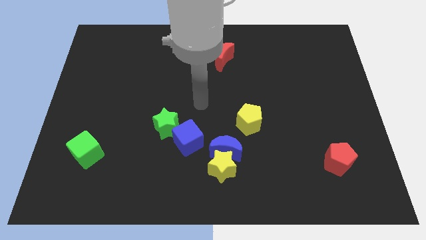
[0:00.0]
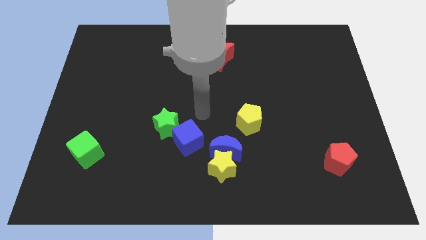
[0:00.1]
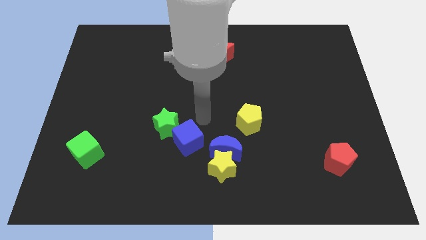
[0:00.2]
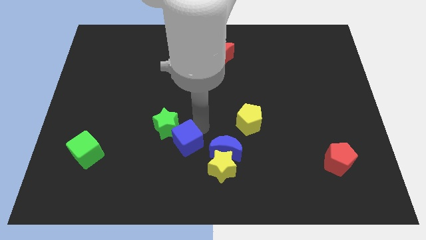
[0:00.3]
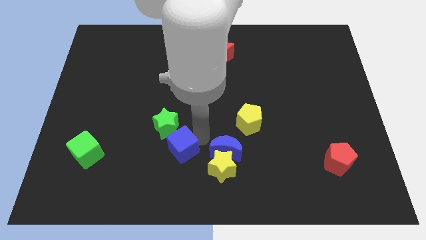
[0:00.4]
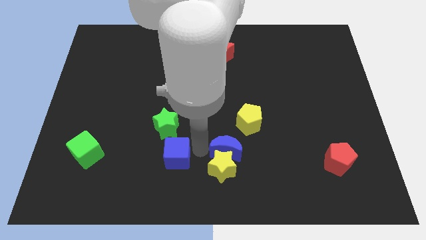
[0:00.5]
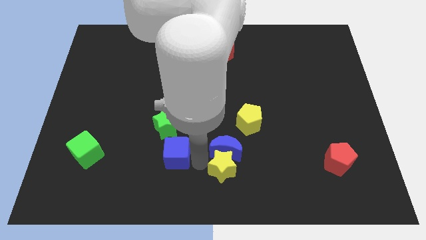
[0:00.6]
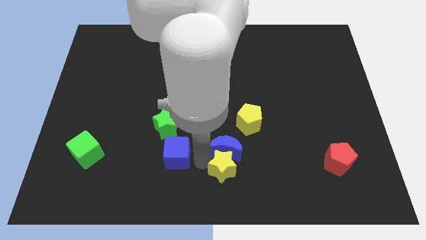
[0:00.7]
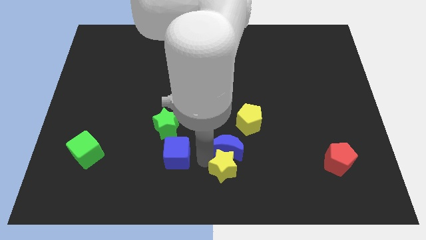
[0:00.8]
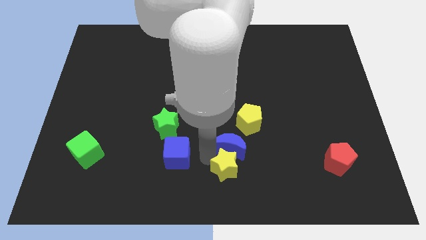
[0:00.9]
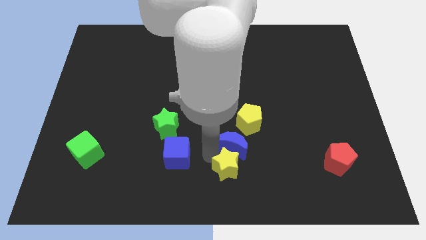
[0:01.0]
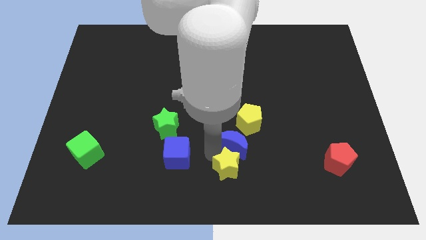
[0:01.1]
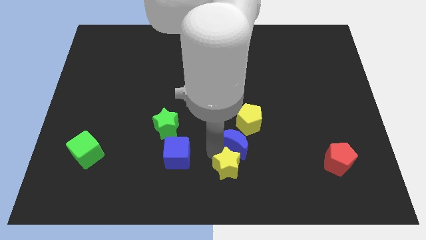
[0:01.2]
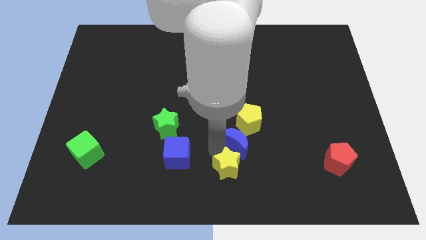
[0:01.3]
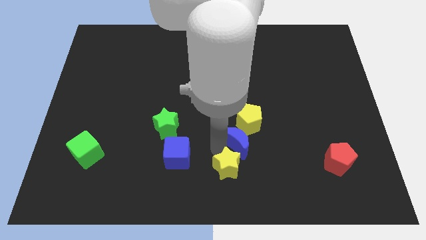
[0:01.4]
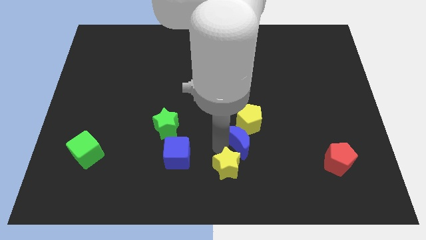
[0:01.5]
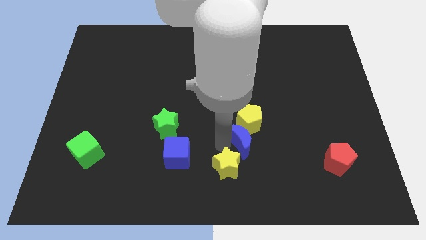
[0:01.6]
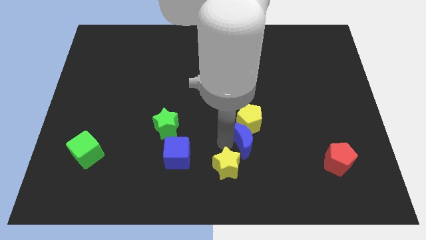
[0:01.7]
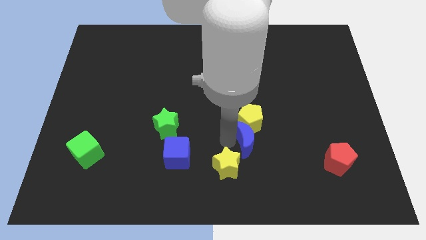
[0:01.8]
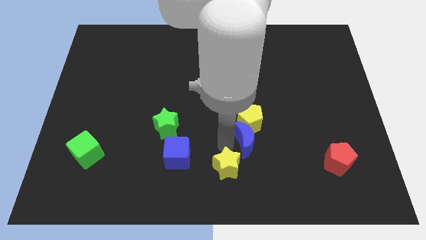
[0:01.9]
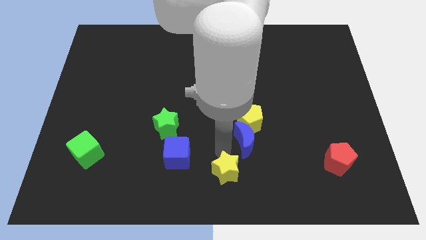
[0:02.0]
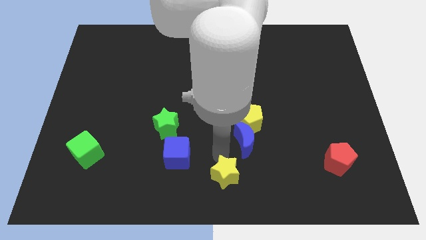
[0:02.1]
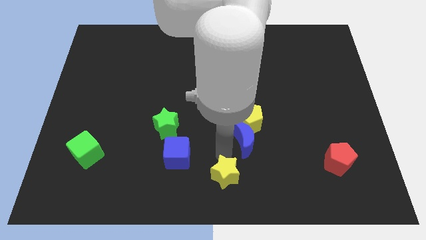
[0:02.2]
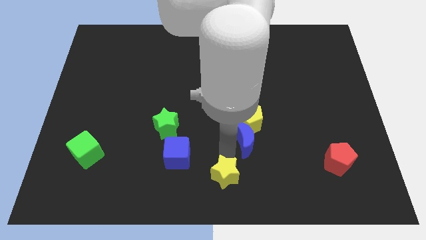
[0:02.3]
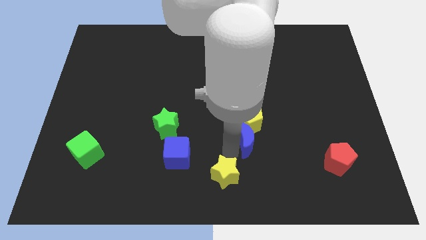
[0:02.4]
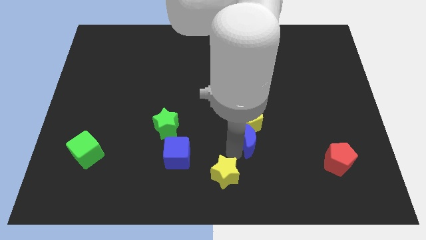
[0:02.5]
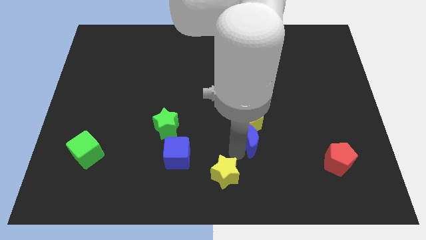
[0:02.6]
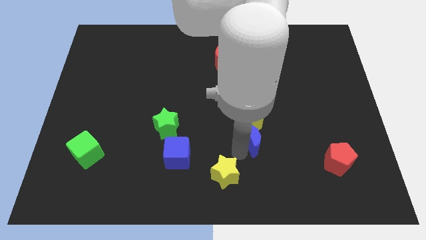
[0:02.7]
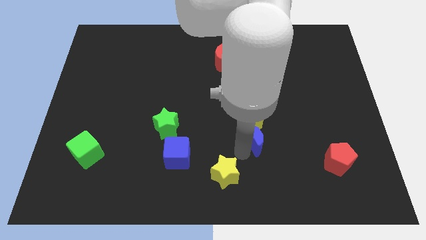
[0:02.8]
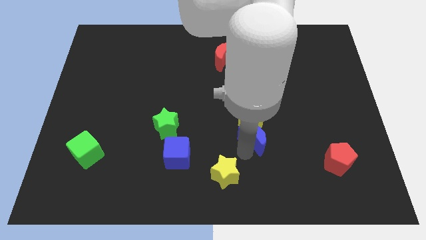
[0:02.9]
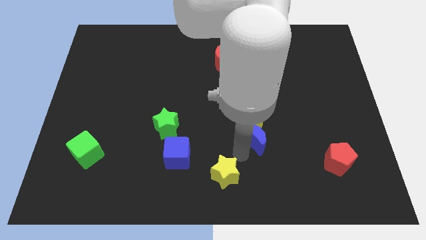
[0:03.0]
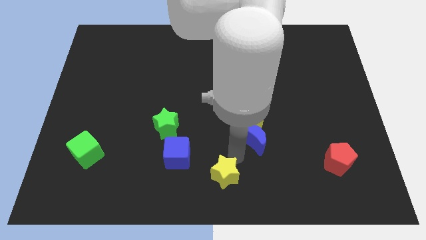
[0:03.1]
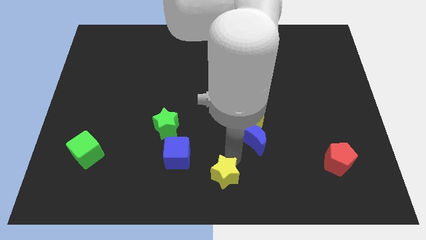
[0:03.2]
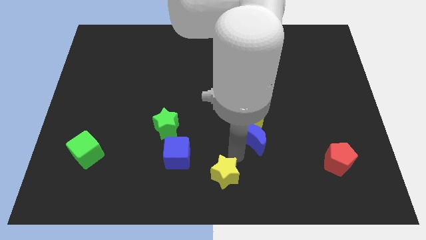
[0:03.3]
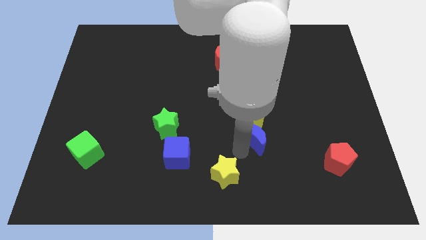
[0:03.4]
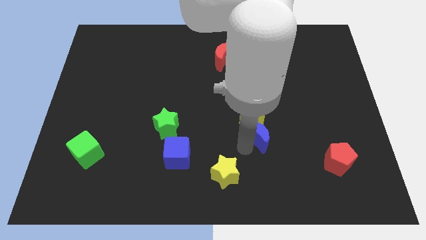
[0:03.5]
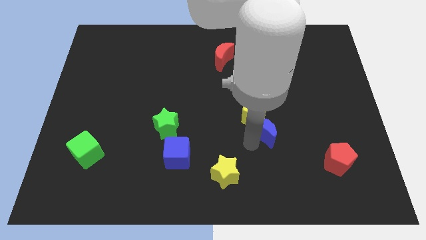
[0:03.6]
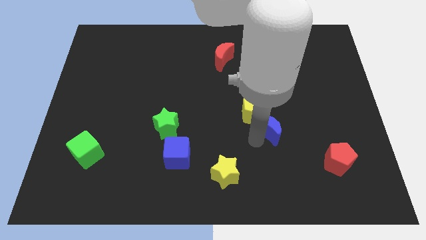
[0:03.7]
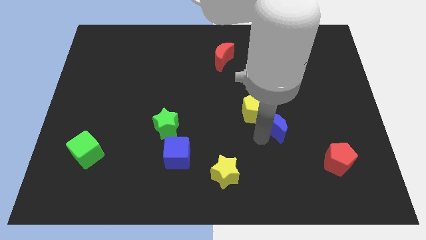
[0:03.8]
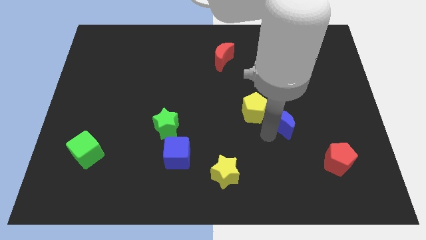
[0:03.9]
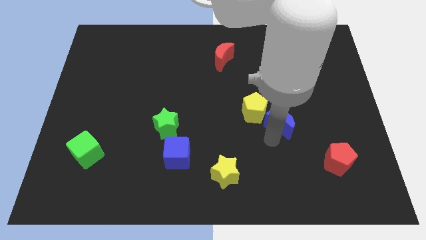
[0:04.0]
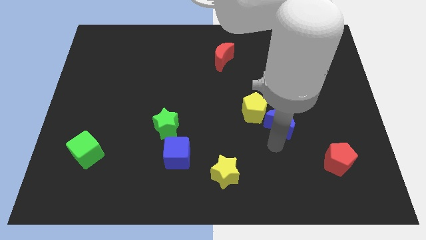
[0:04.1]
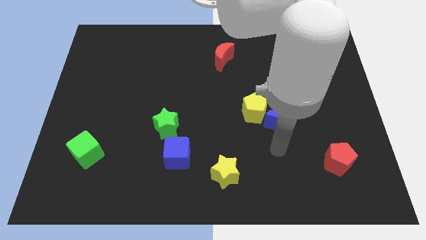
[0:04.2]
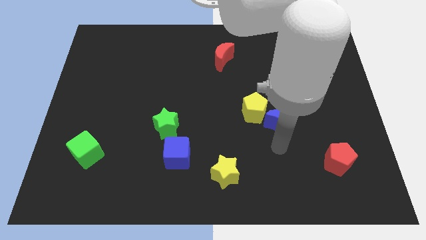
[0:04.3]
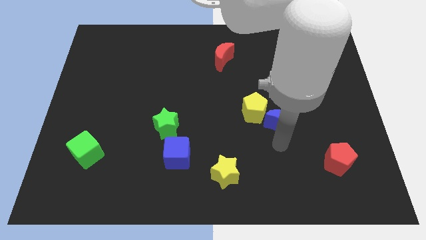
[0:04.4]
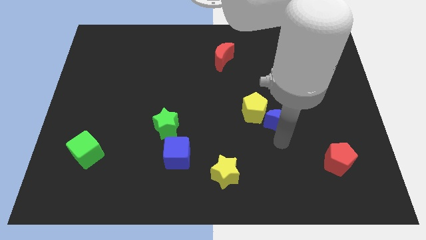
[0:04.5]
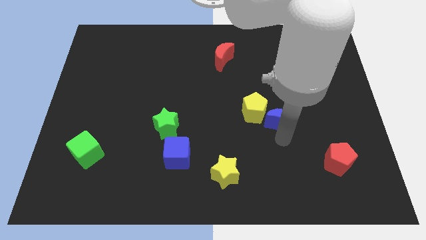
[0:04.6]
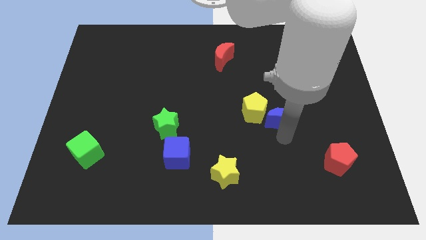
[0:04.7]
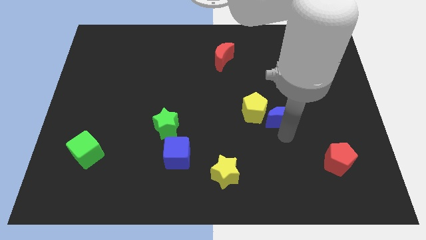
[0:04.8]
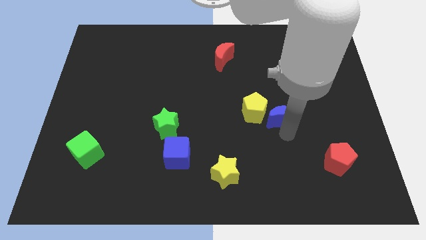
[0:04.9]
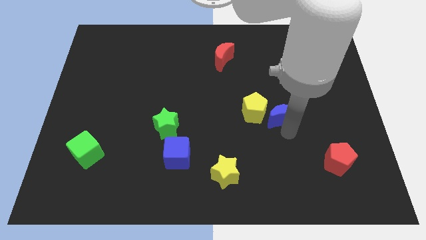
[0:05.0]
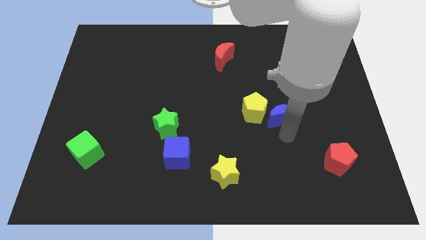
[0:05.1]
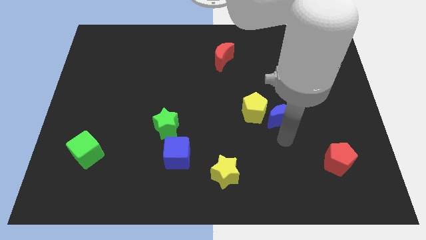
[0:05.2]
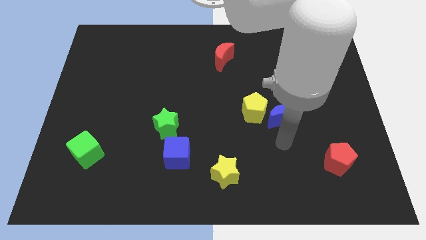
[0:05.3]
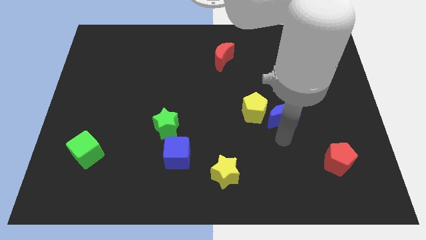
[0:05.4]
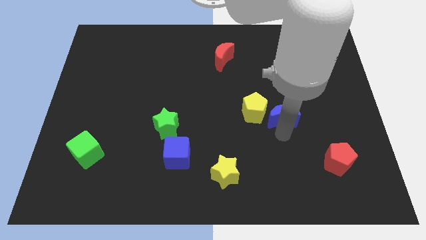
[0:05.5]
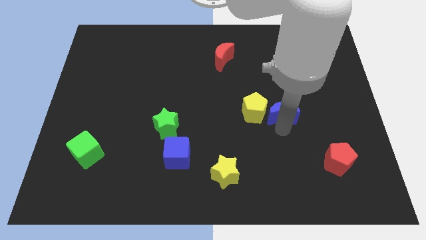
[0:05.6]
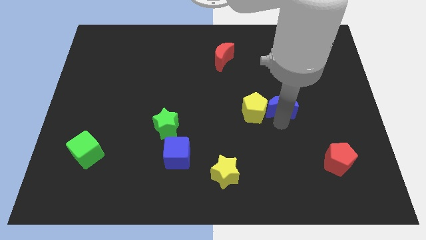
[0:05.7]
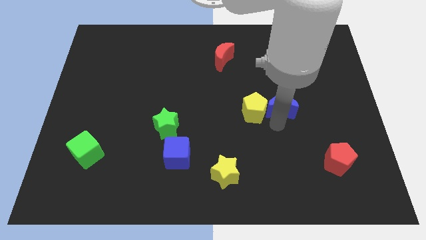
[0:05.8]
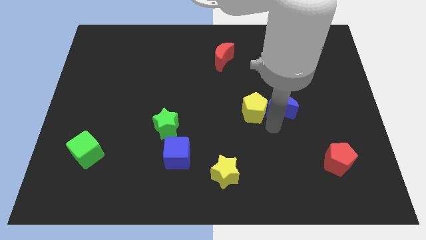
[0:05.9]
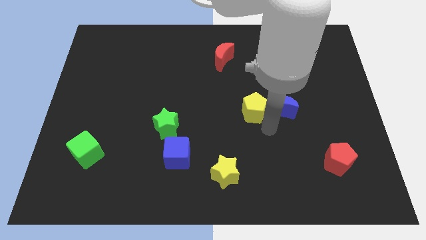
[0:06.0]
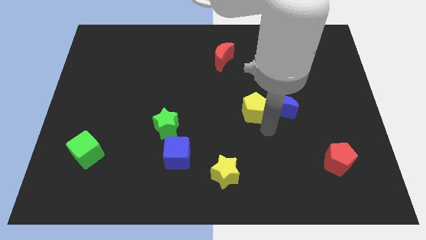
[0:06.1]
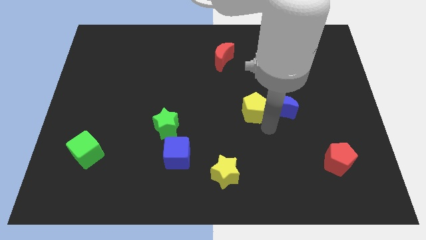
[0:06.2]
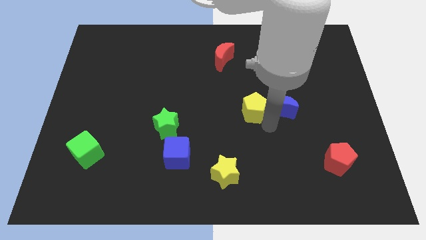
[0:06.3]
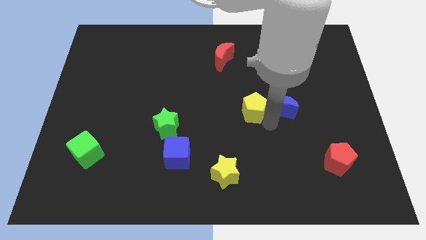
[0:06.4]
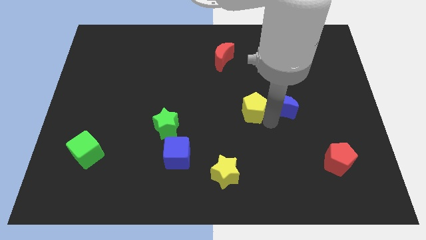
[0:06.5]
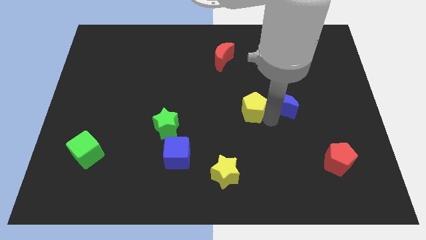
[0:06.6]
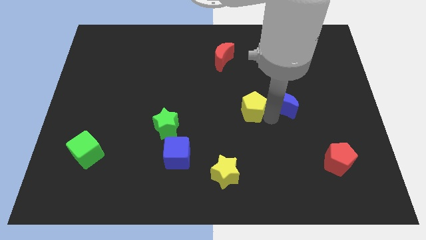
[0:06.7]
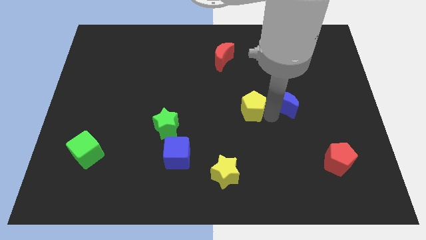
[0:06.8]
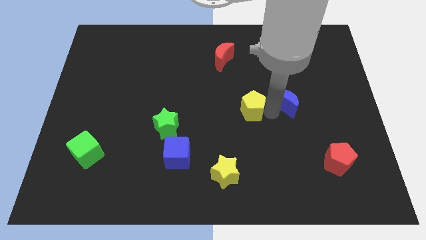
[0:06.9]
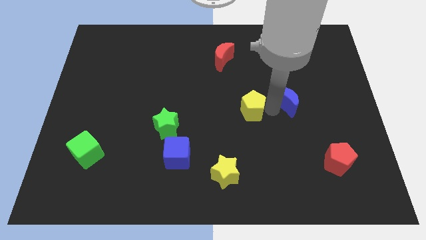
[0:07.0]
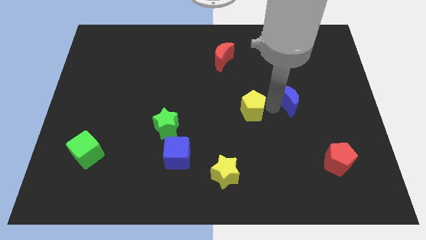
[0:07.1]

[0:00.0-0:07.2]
push the blue moon up and to the right diagonally

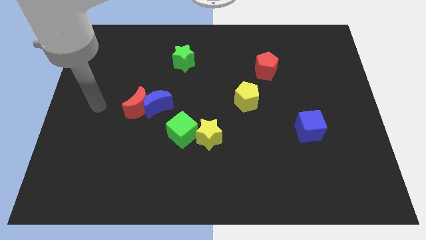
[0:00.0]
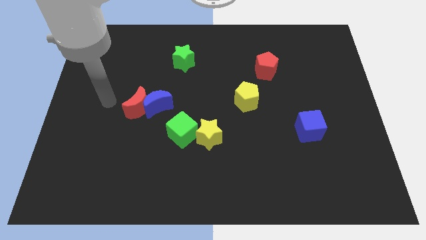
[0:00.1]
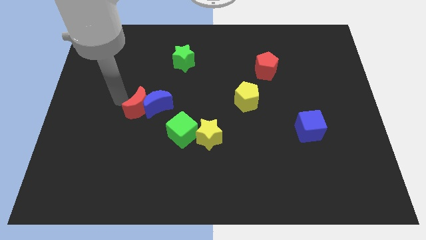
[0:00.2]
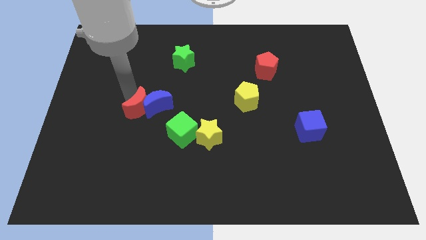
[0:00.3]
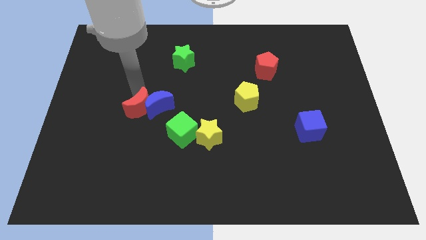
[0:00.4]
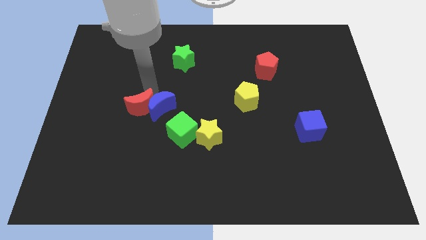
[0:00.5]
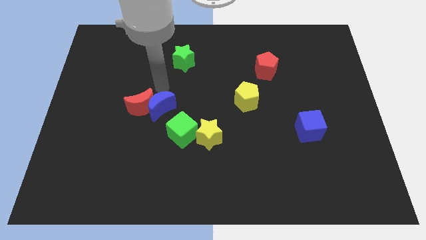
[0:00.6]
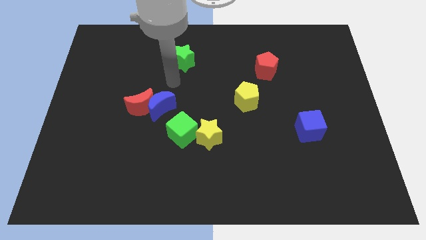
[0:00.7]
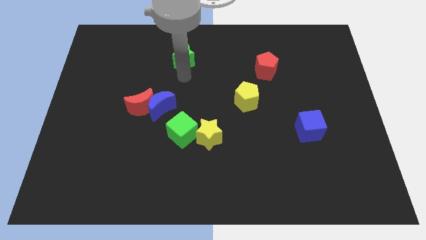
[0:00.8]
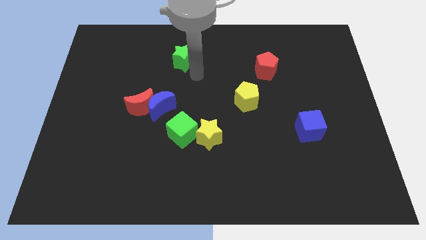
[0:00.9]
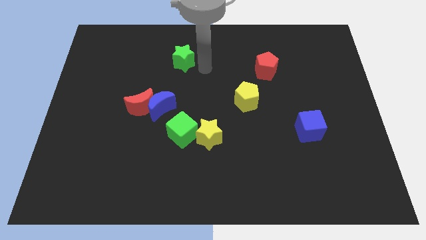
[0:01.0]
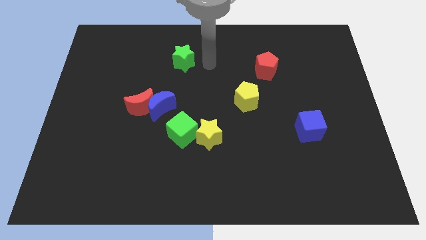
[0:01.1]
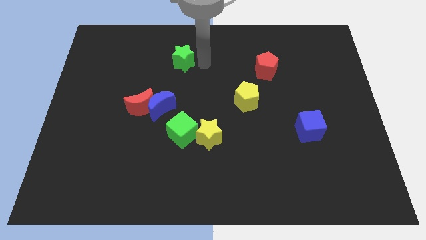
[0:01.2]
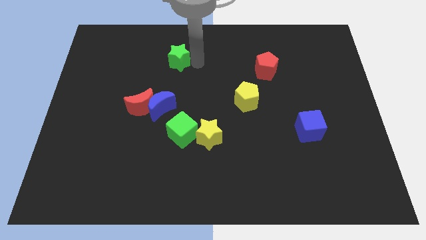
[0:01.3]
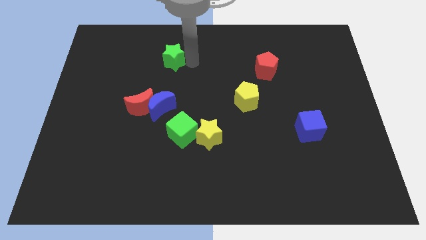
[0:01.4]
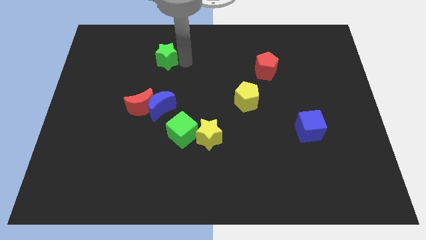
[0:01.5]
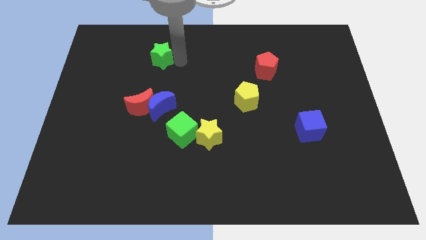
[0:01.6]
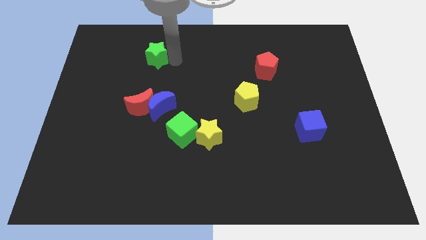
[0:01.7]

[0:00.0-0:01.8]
slide the green star left a little
